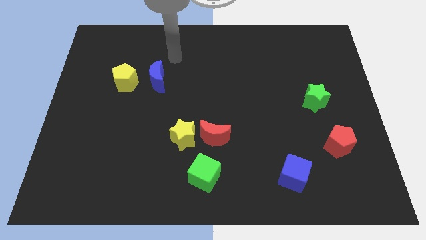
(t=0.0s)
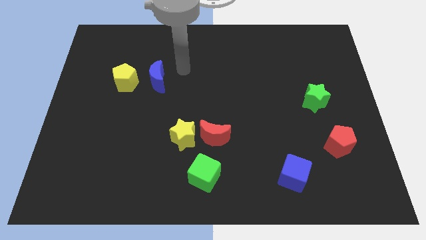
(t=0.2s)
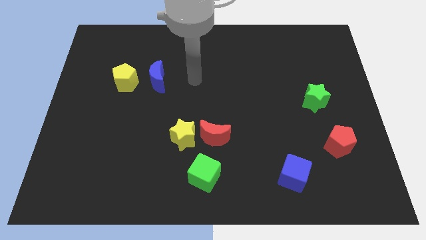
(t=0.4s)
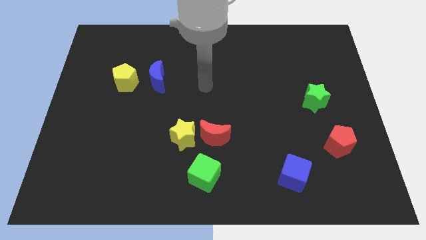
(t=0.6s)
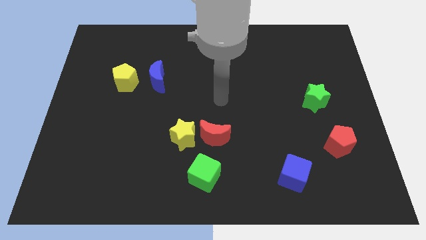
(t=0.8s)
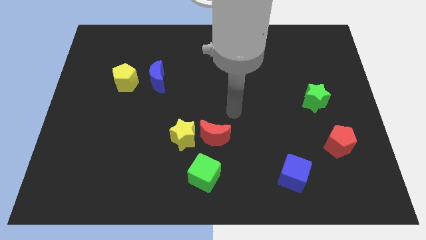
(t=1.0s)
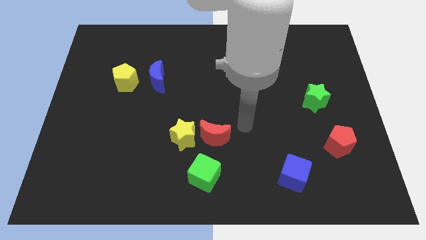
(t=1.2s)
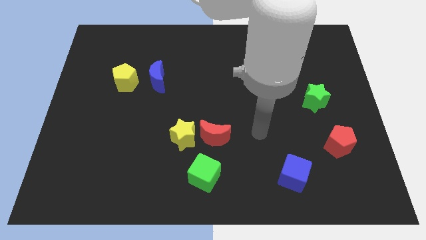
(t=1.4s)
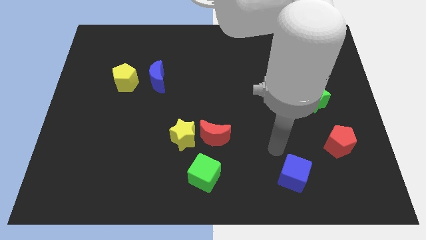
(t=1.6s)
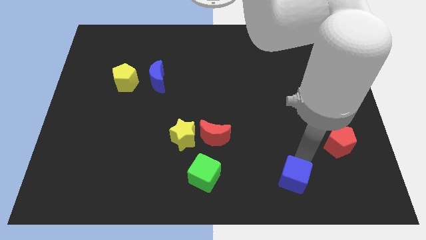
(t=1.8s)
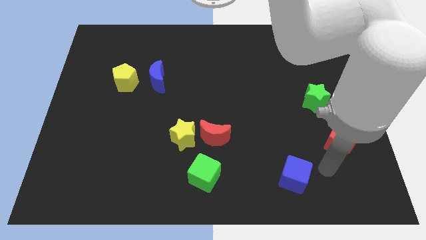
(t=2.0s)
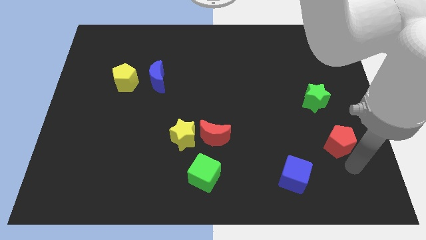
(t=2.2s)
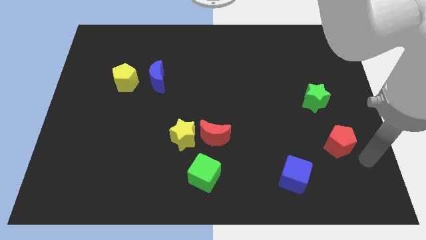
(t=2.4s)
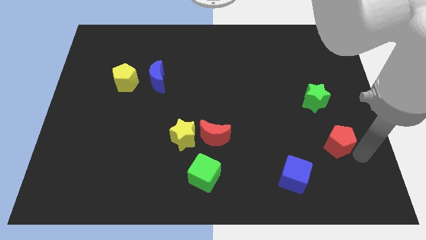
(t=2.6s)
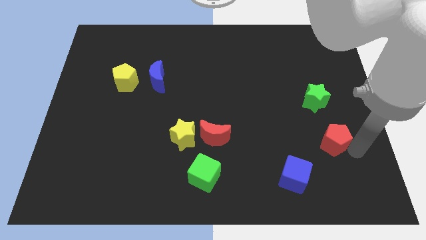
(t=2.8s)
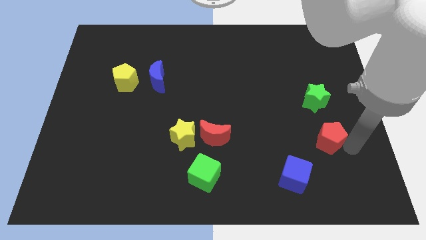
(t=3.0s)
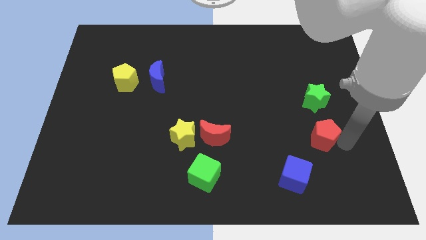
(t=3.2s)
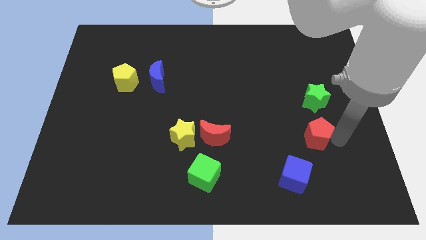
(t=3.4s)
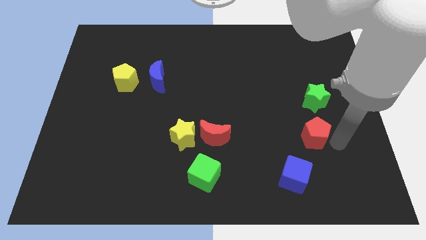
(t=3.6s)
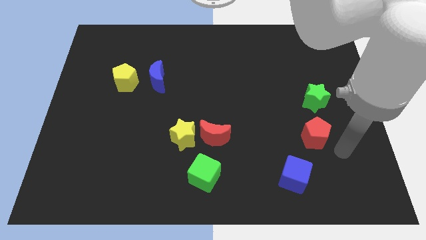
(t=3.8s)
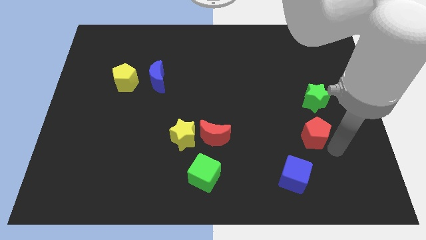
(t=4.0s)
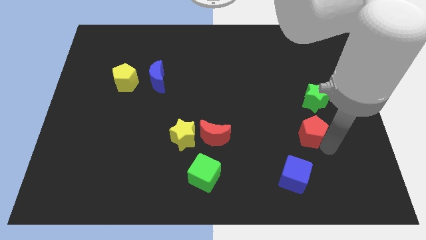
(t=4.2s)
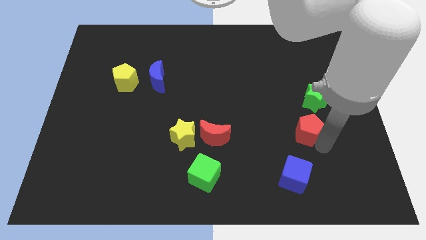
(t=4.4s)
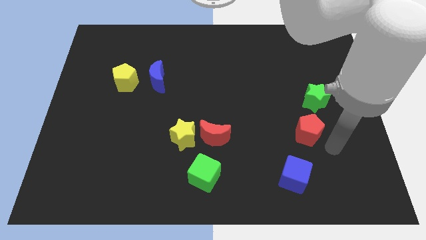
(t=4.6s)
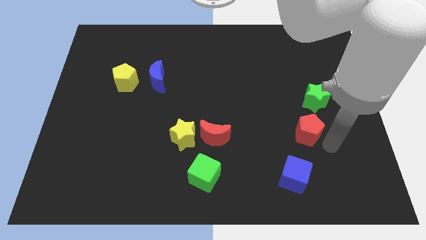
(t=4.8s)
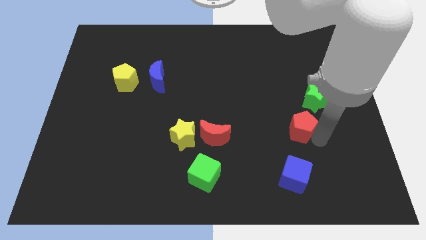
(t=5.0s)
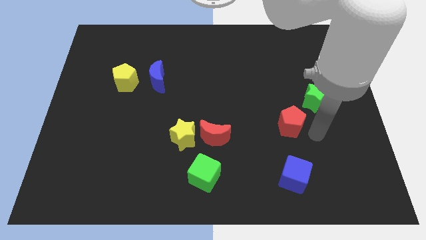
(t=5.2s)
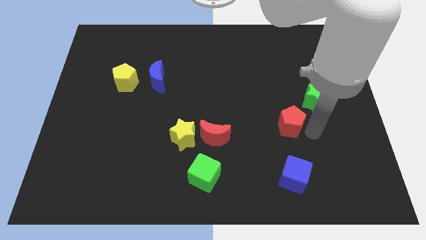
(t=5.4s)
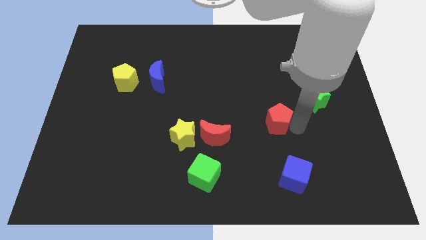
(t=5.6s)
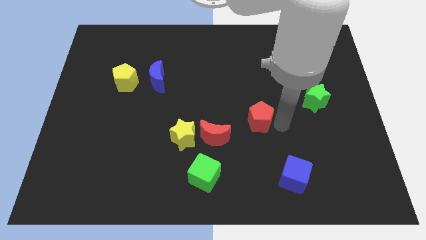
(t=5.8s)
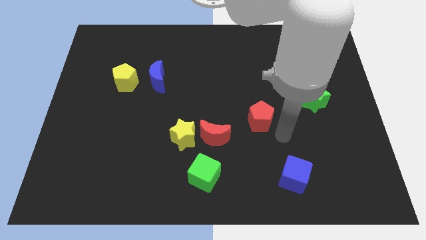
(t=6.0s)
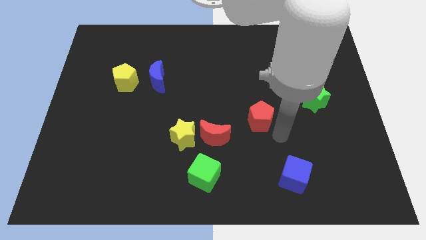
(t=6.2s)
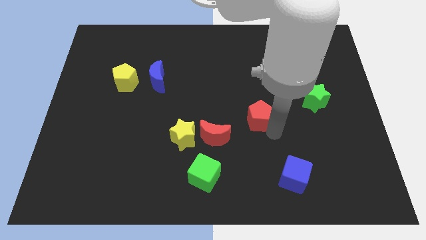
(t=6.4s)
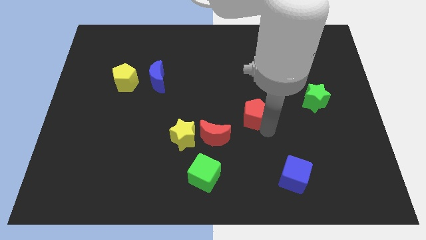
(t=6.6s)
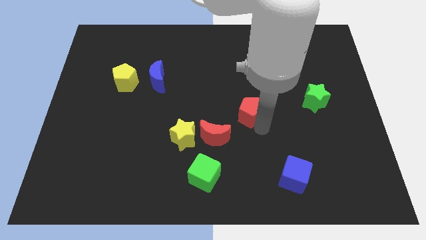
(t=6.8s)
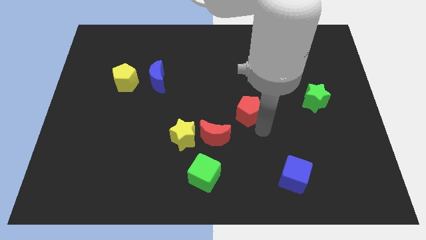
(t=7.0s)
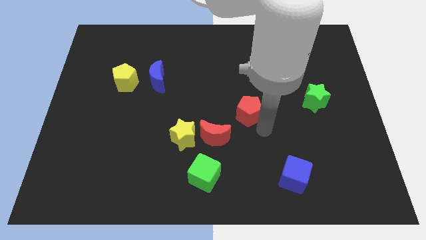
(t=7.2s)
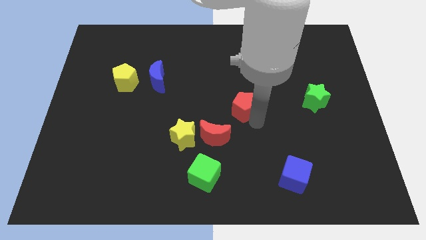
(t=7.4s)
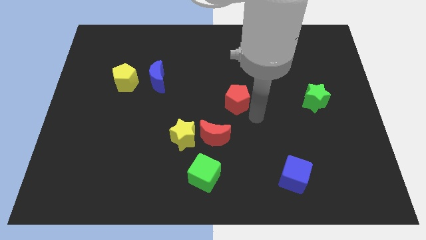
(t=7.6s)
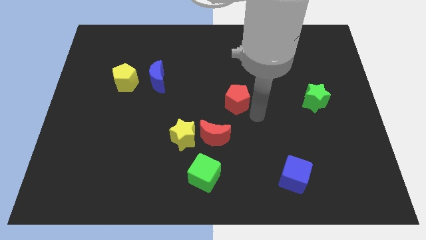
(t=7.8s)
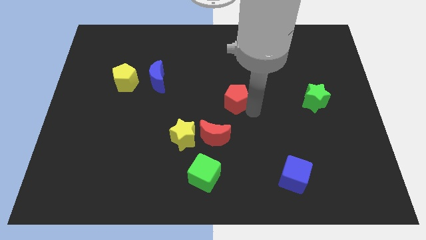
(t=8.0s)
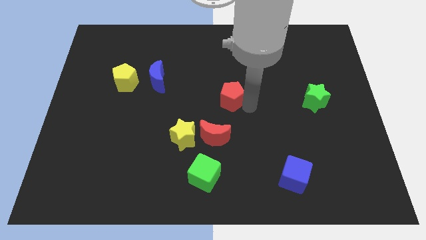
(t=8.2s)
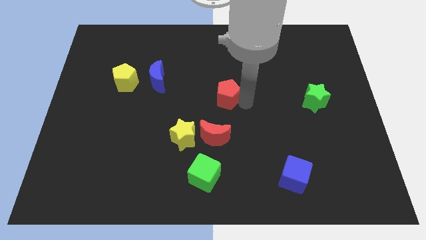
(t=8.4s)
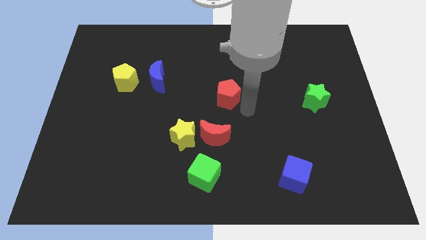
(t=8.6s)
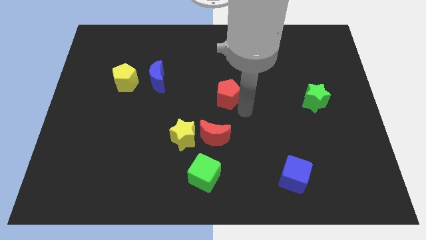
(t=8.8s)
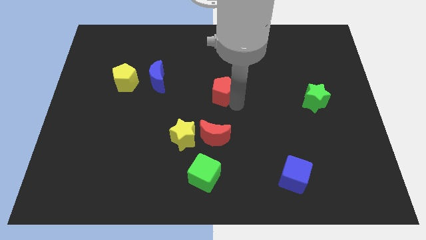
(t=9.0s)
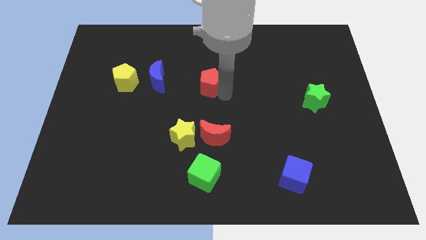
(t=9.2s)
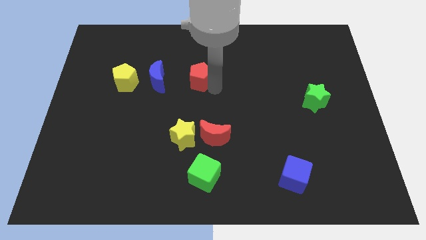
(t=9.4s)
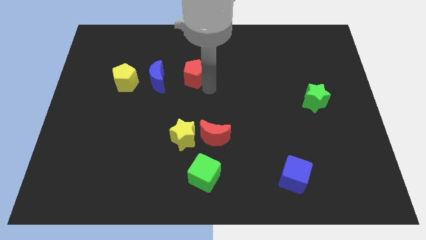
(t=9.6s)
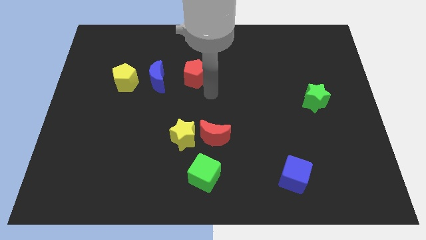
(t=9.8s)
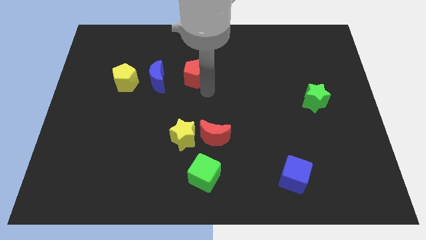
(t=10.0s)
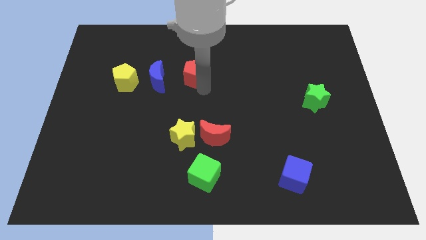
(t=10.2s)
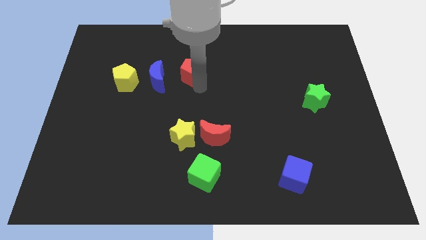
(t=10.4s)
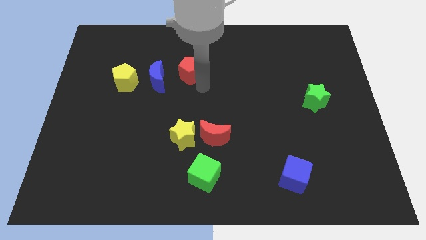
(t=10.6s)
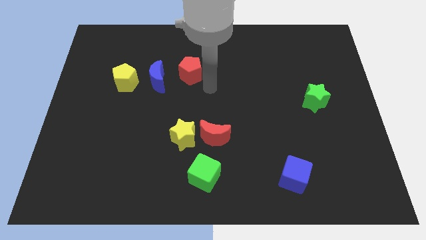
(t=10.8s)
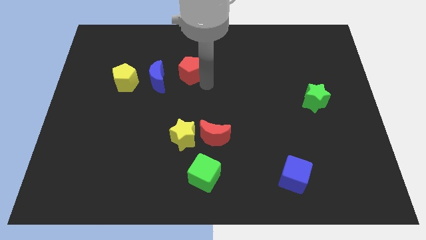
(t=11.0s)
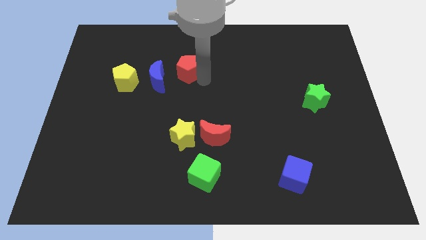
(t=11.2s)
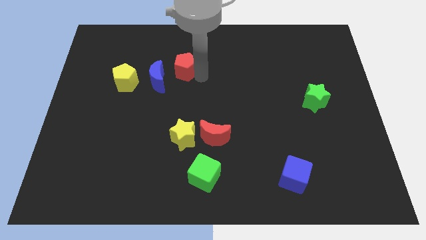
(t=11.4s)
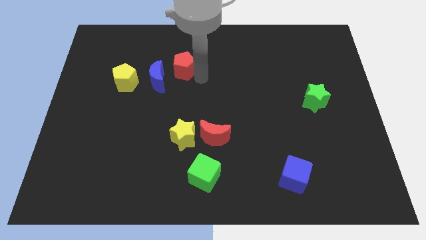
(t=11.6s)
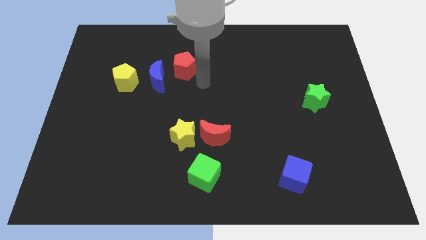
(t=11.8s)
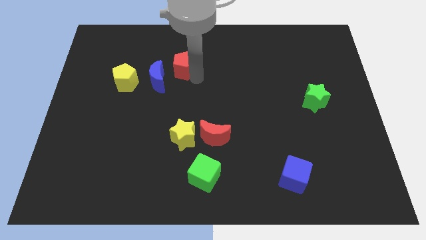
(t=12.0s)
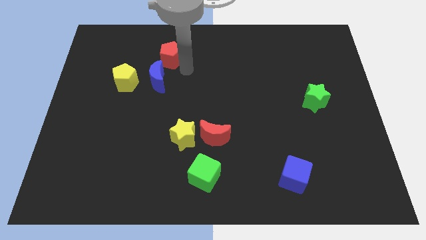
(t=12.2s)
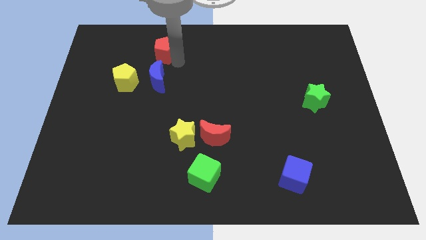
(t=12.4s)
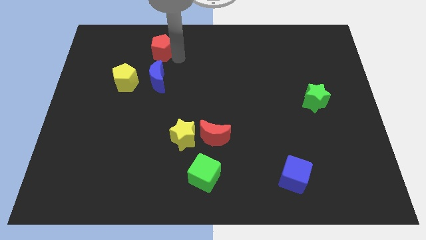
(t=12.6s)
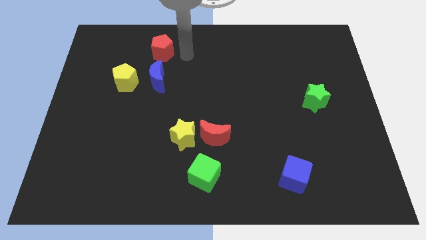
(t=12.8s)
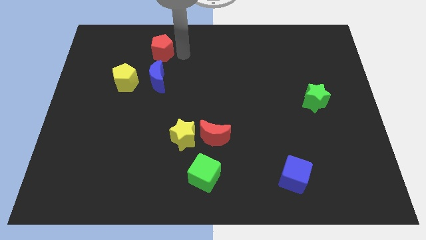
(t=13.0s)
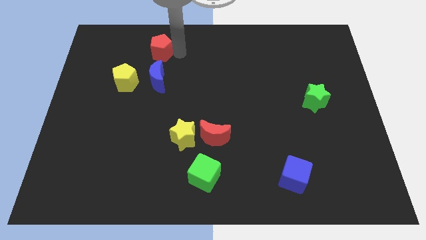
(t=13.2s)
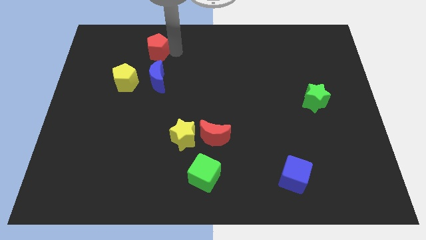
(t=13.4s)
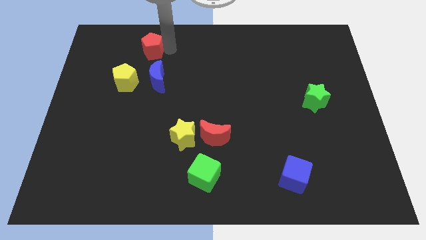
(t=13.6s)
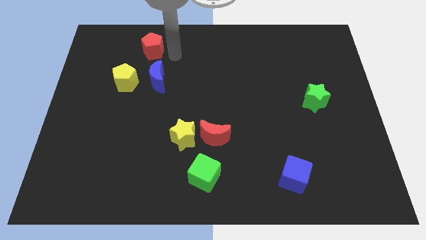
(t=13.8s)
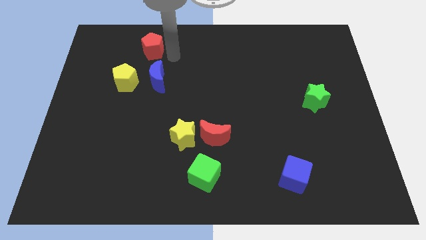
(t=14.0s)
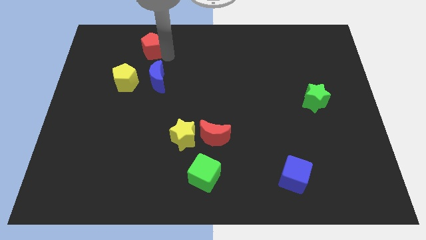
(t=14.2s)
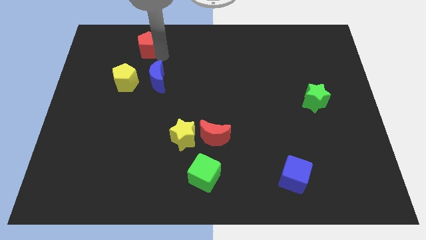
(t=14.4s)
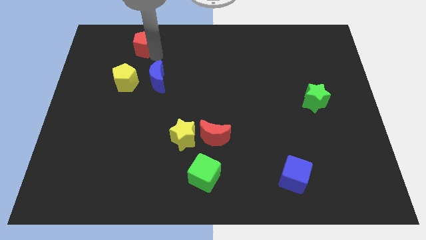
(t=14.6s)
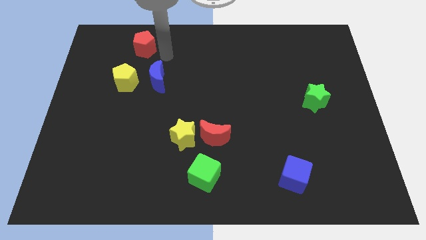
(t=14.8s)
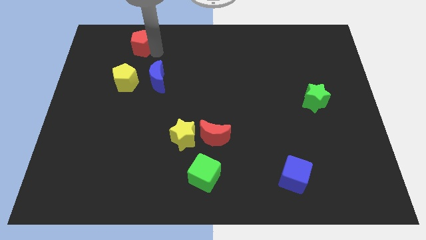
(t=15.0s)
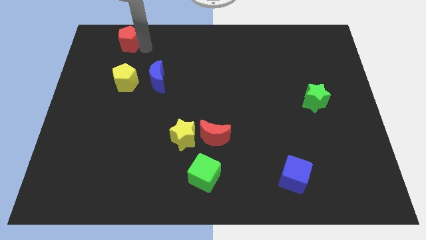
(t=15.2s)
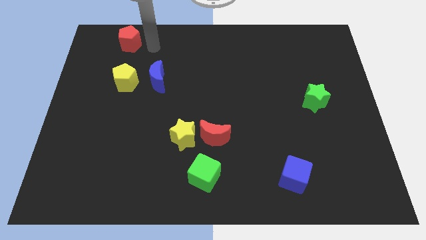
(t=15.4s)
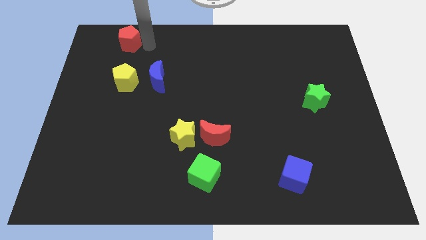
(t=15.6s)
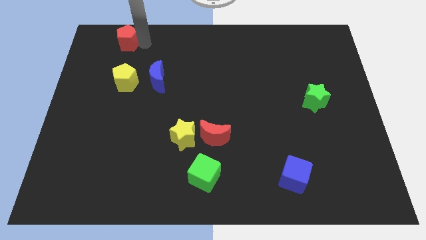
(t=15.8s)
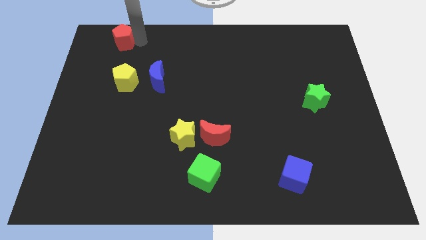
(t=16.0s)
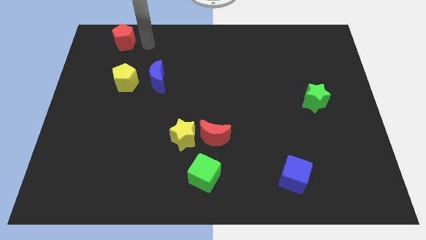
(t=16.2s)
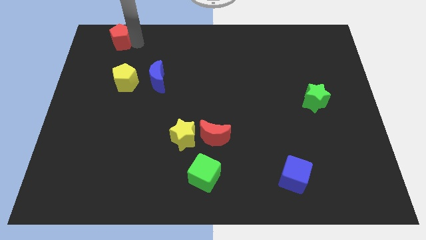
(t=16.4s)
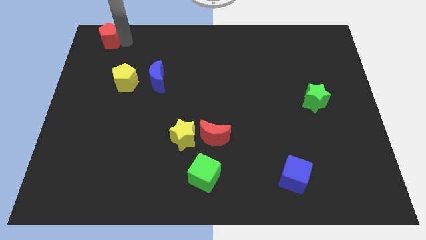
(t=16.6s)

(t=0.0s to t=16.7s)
move the red pentagon to the upper left corner
